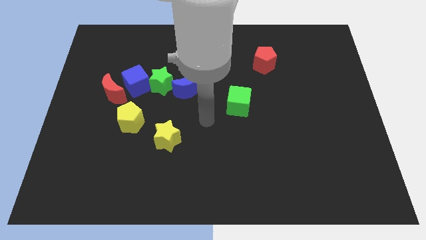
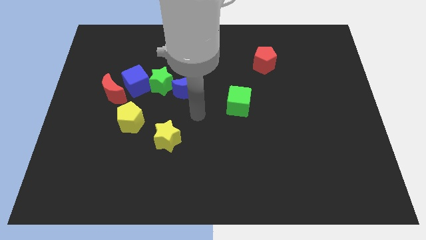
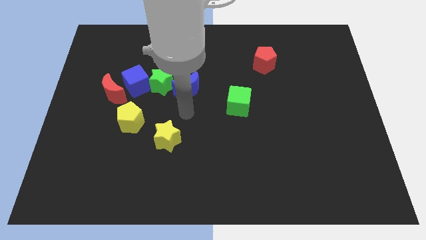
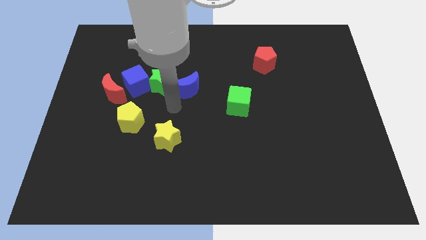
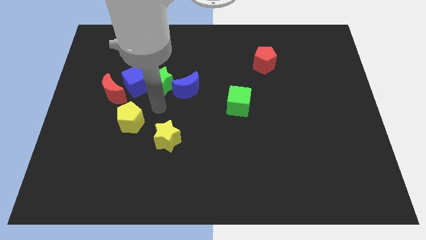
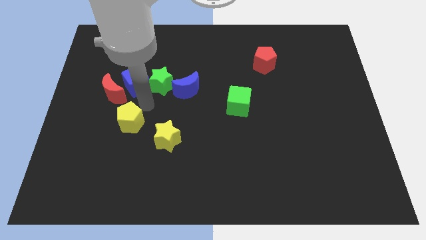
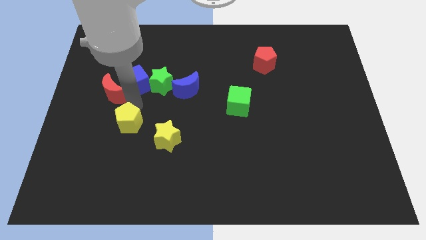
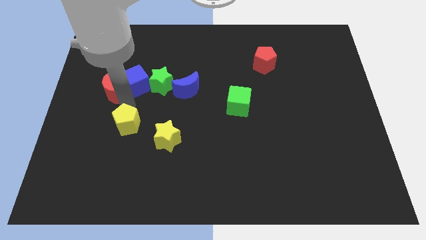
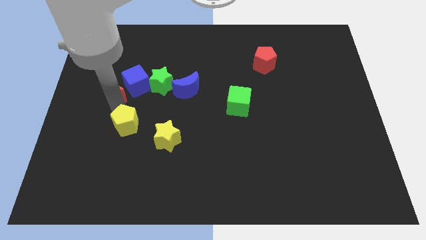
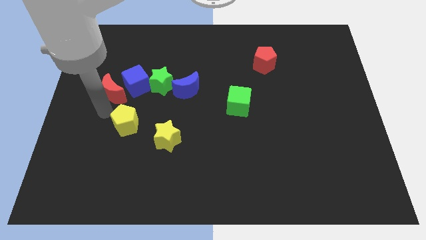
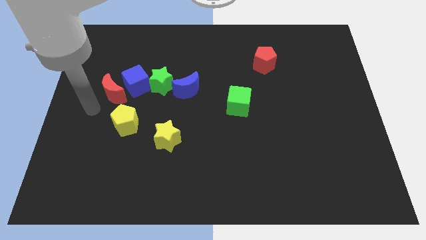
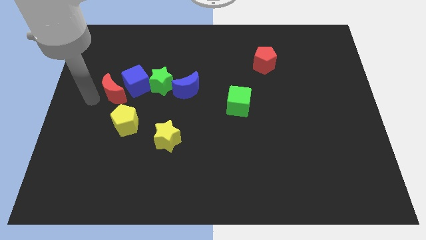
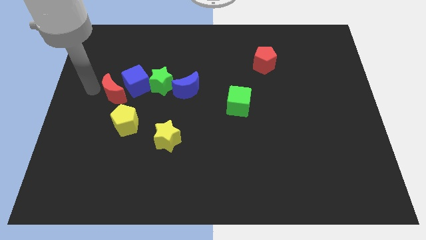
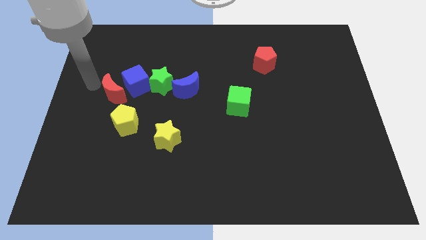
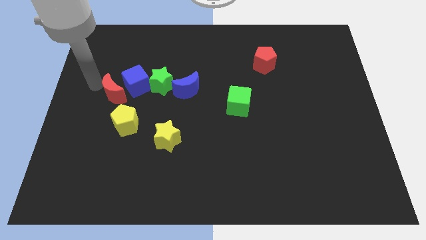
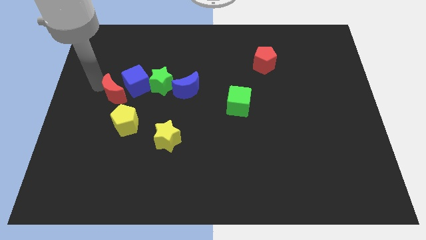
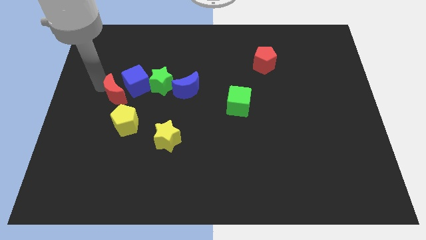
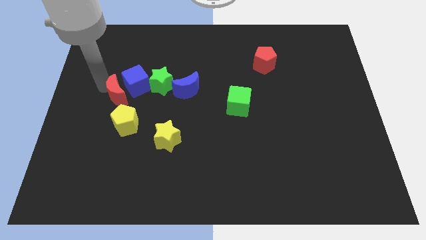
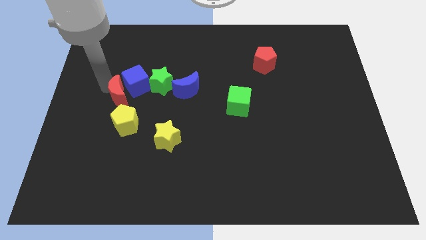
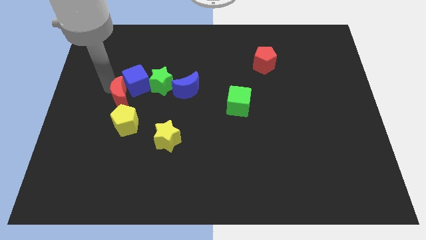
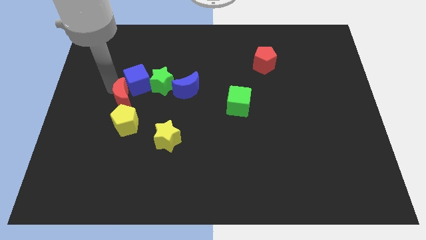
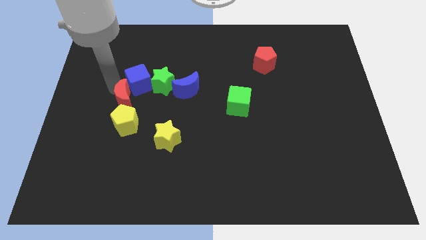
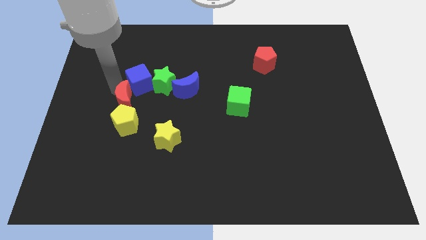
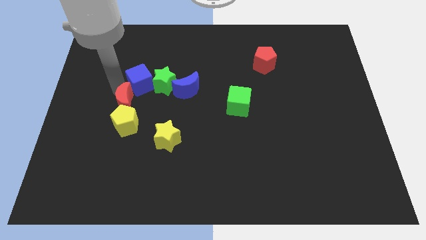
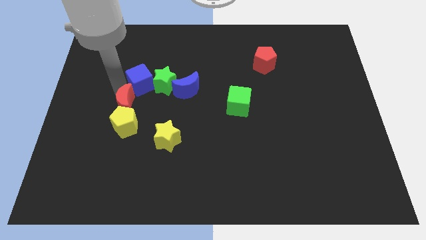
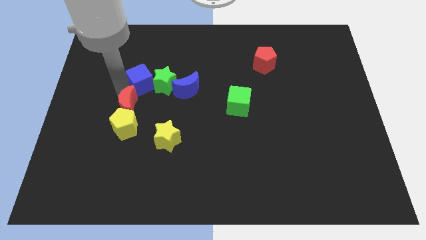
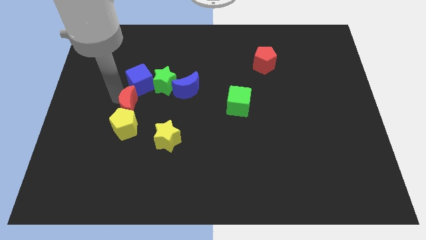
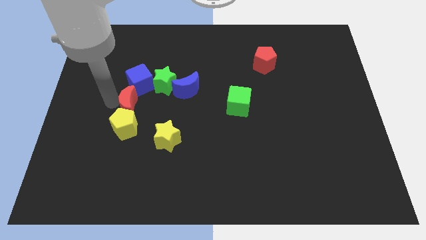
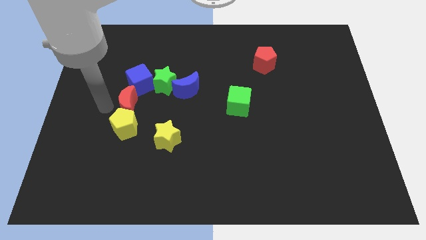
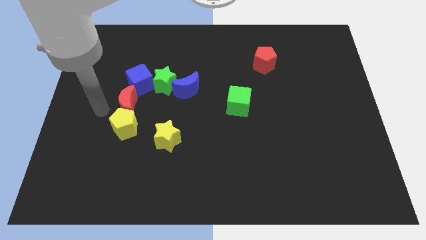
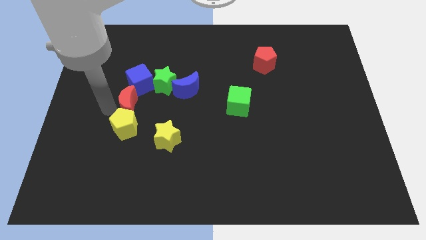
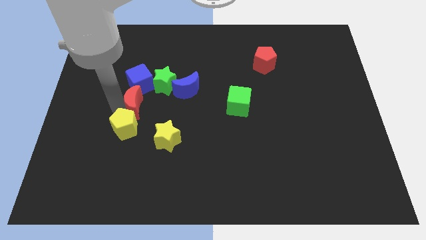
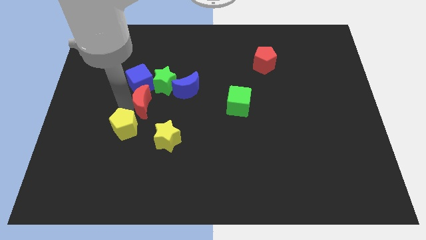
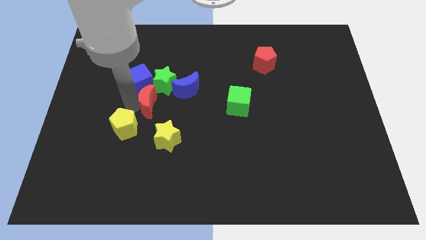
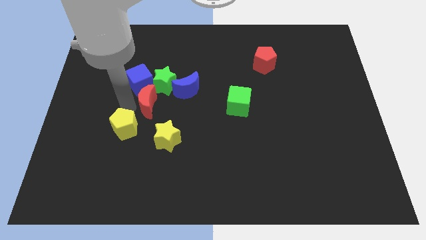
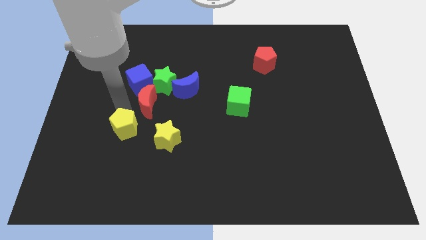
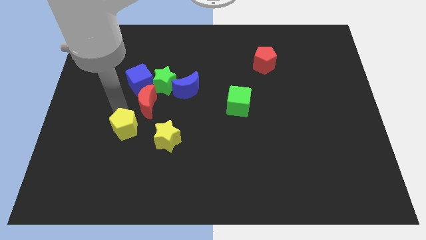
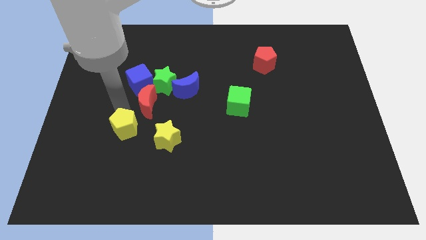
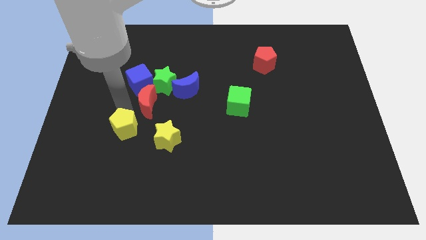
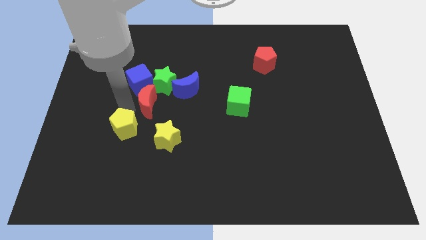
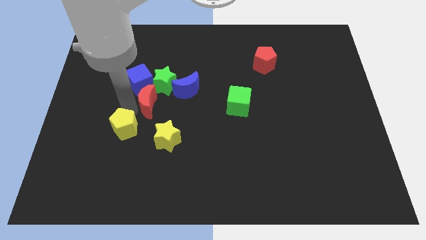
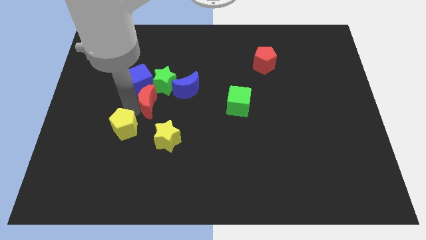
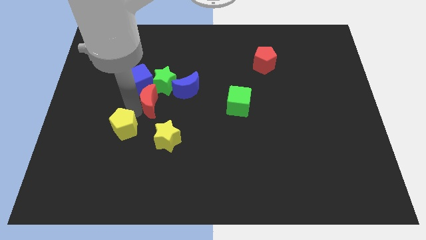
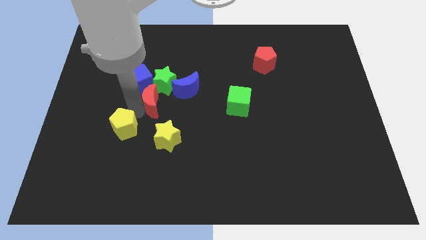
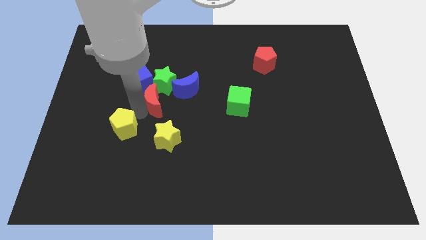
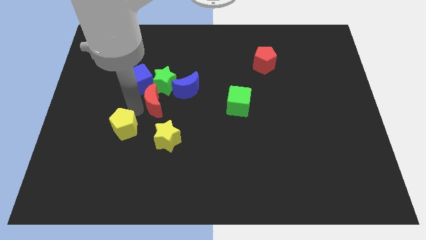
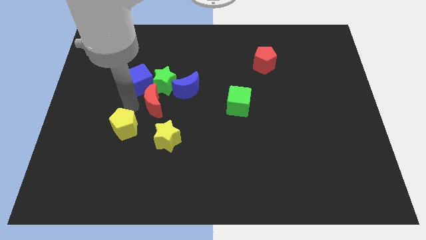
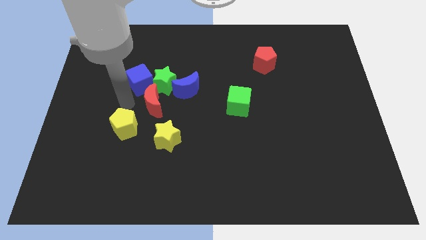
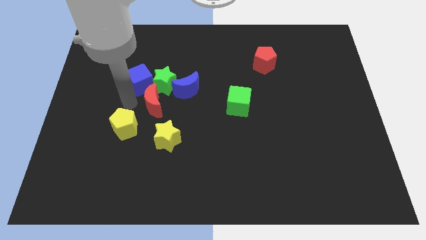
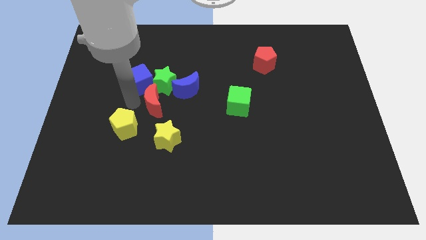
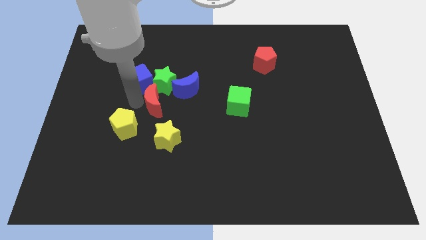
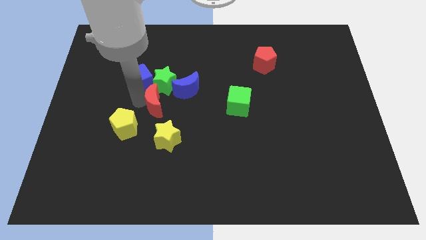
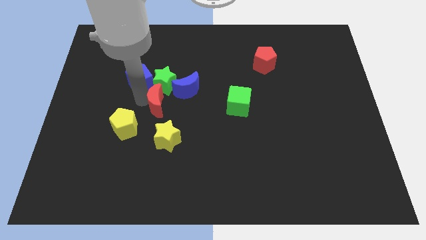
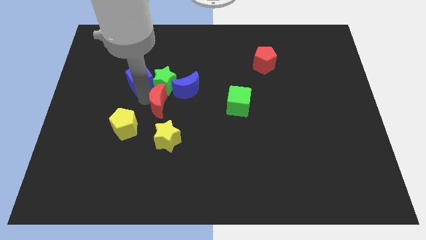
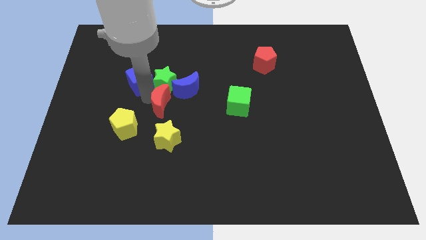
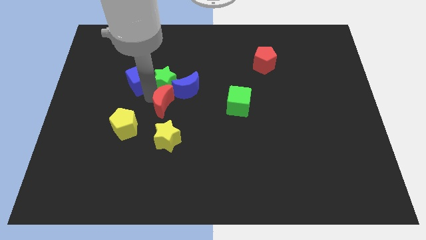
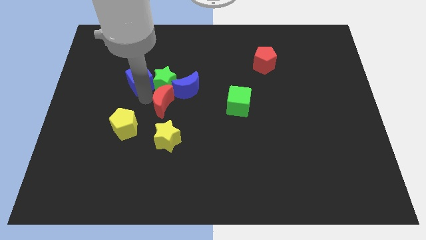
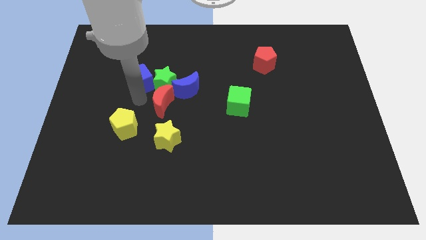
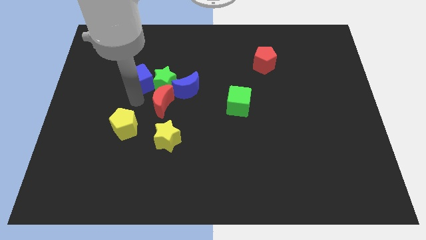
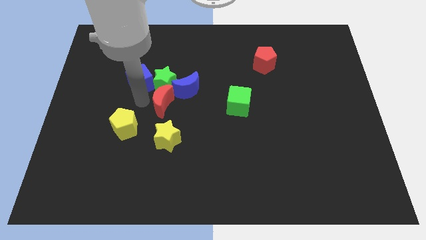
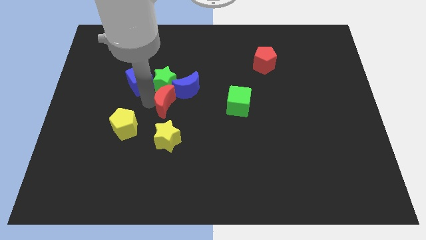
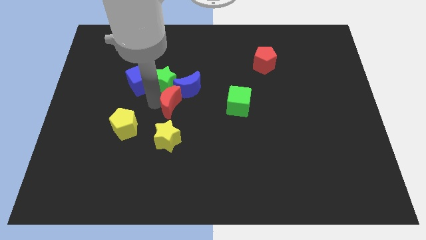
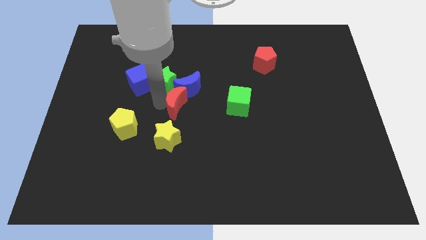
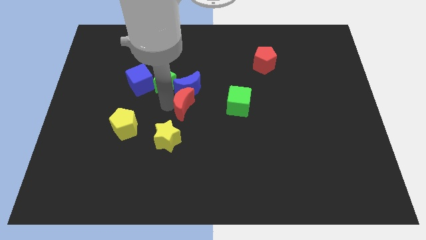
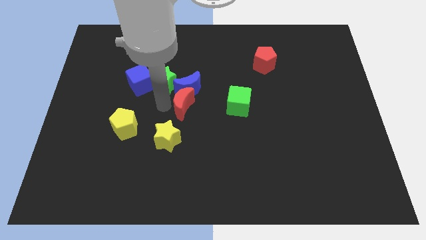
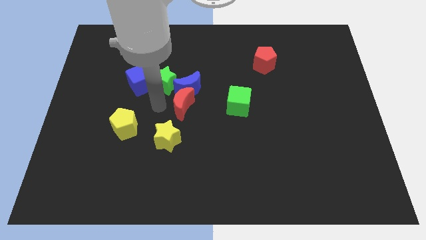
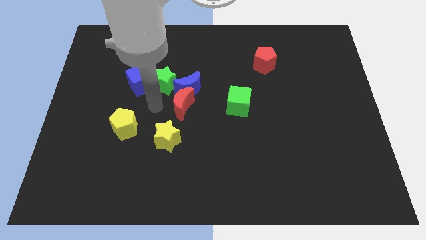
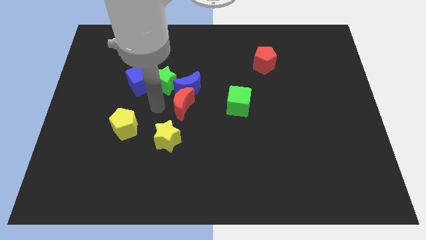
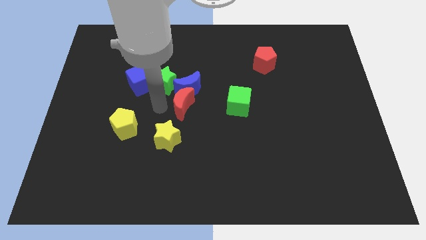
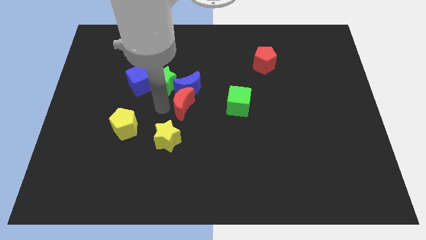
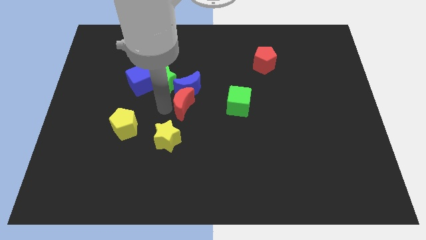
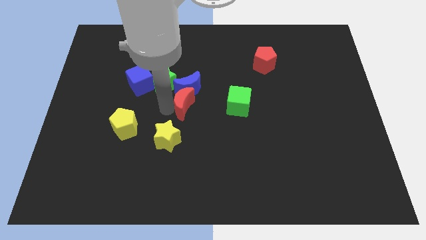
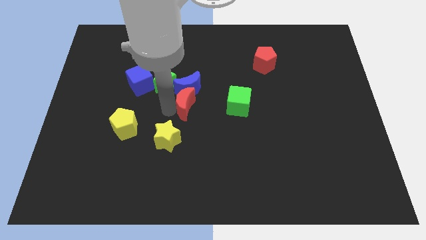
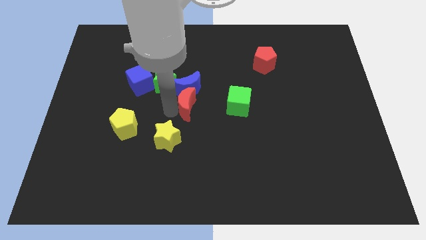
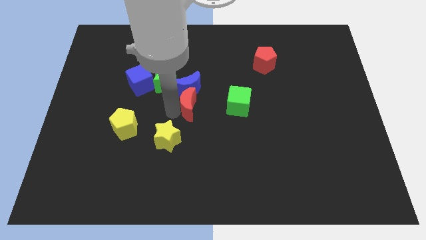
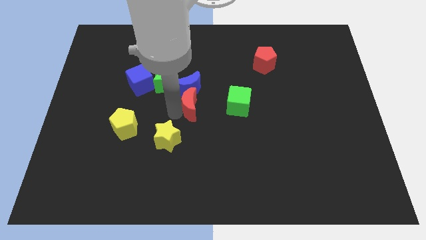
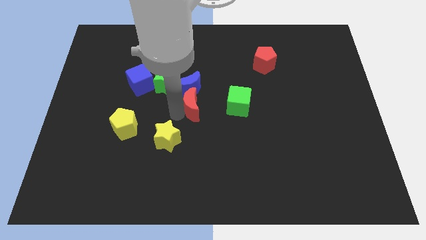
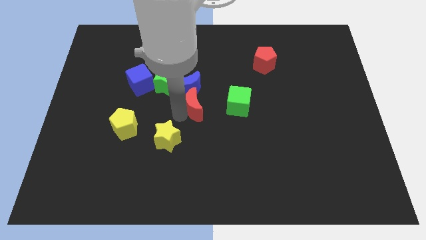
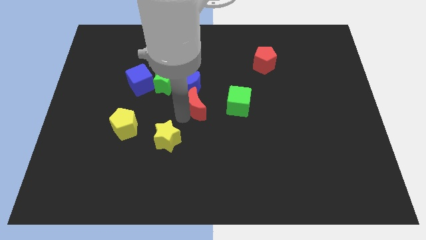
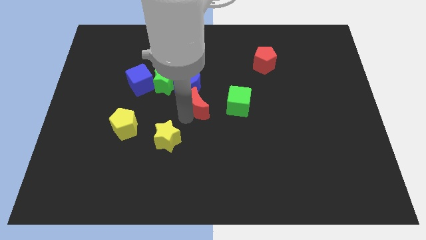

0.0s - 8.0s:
slide the red moon right

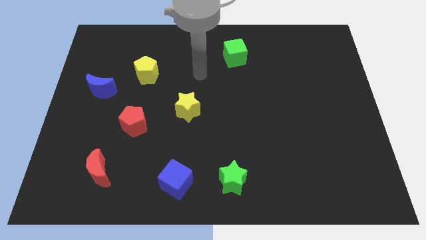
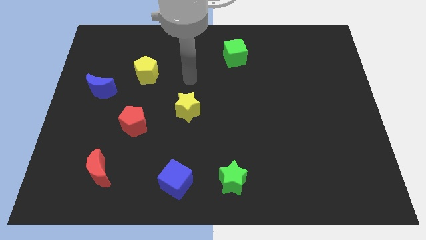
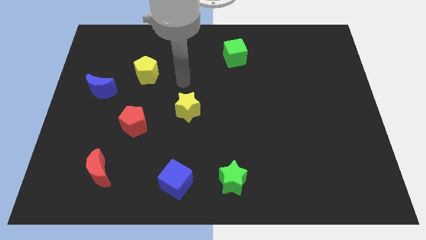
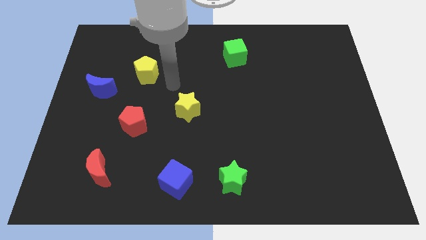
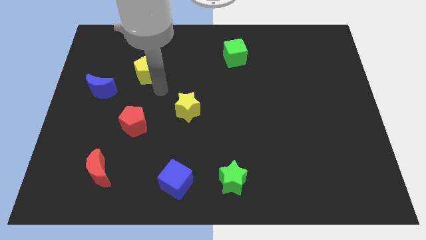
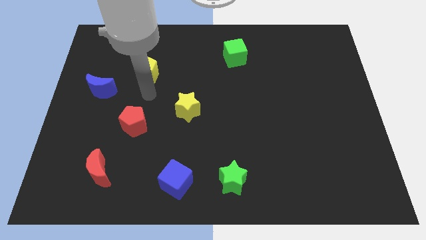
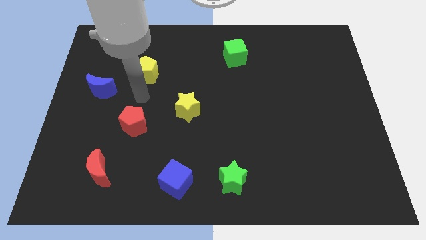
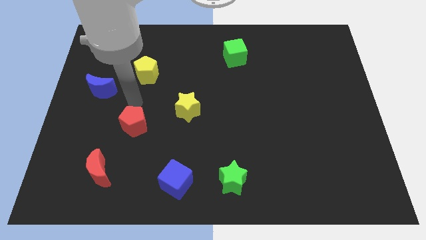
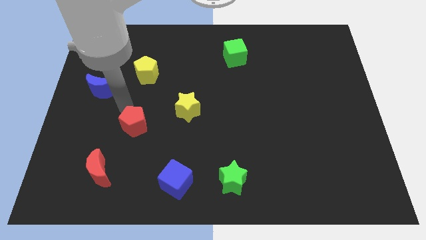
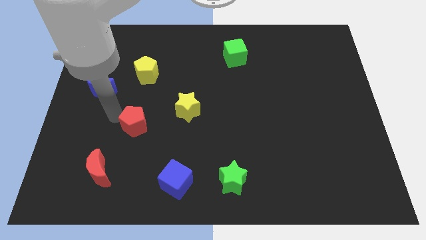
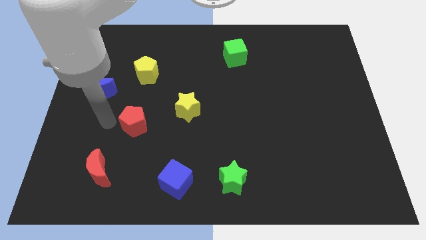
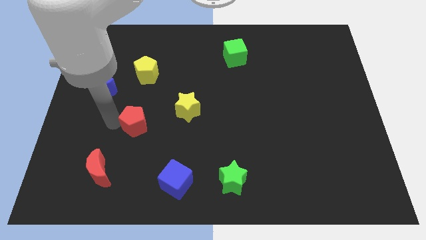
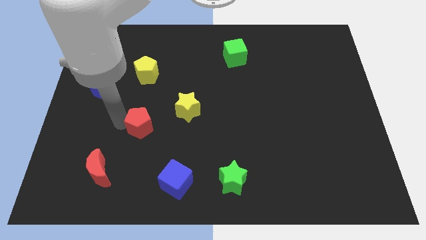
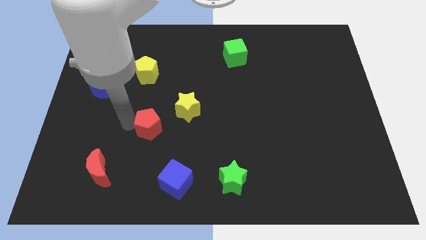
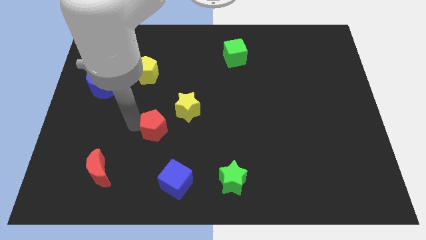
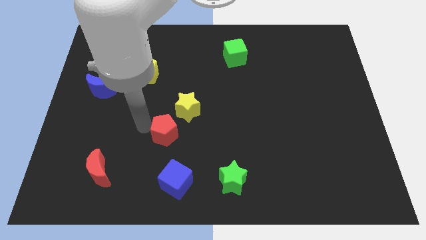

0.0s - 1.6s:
slide the red pentagon right a bit
